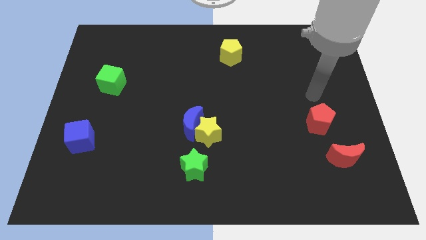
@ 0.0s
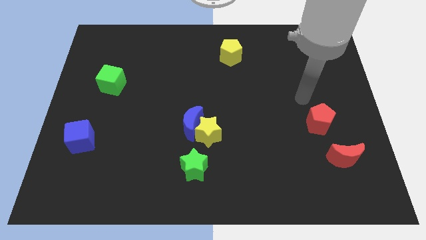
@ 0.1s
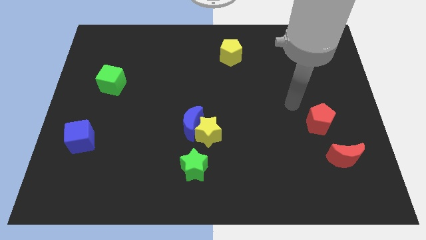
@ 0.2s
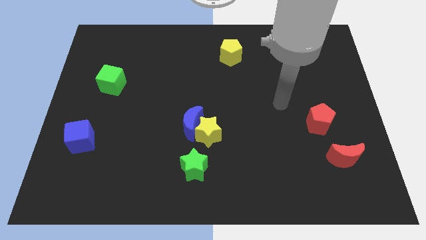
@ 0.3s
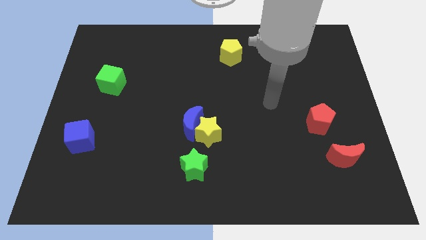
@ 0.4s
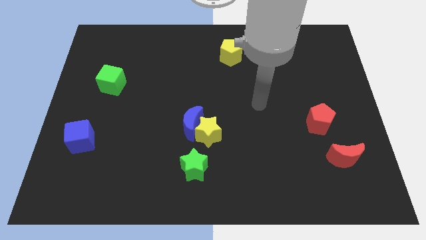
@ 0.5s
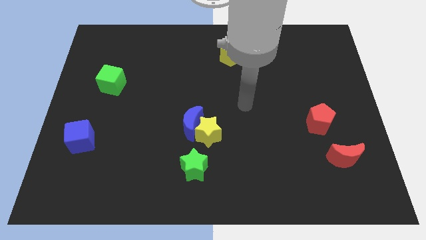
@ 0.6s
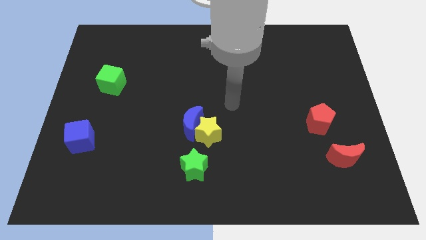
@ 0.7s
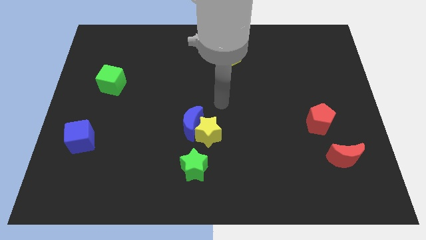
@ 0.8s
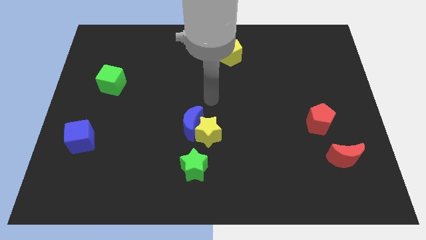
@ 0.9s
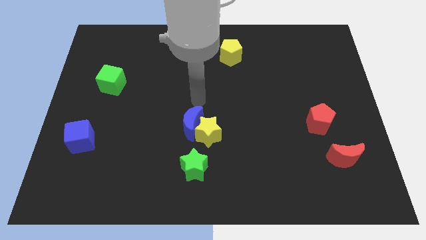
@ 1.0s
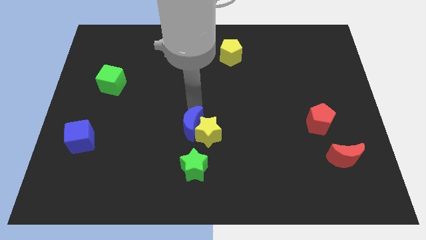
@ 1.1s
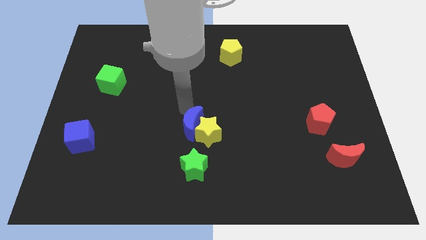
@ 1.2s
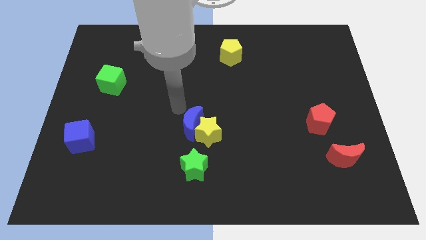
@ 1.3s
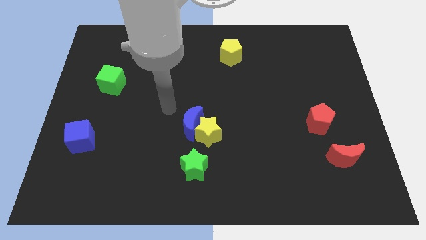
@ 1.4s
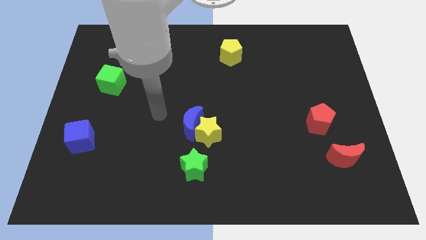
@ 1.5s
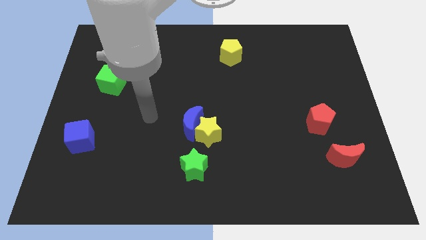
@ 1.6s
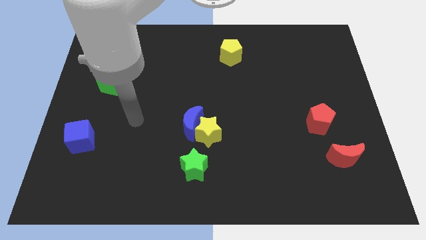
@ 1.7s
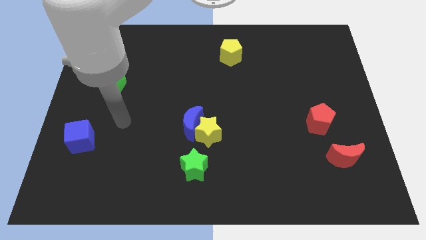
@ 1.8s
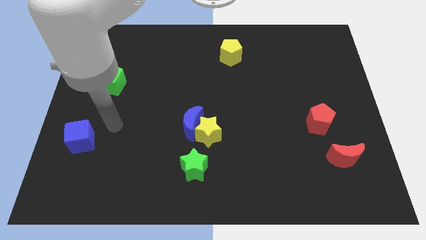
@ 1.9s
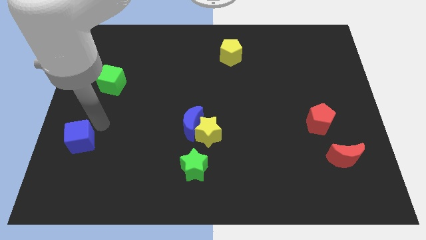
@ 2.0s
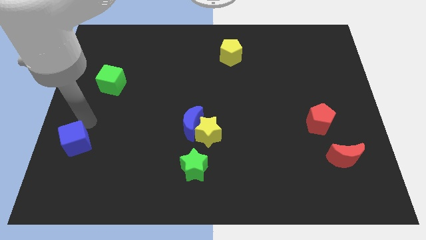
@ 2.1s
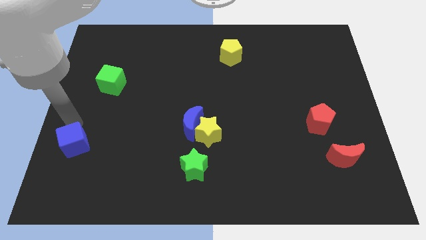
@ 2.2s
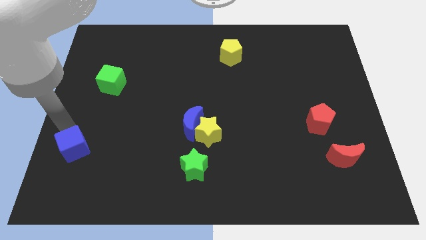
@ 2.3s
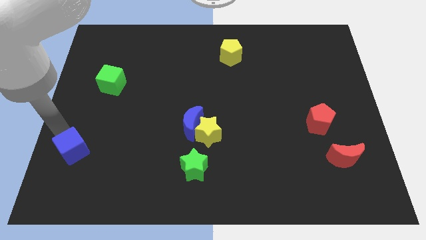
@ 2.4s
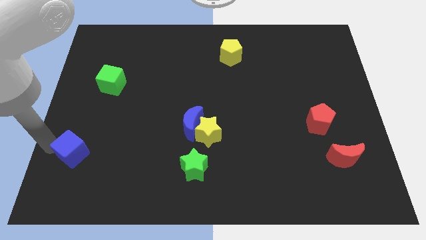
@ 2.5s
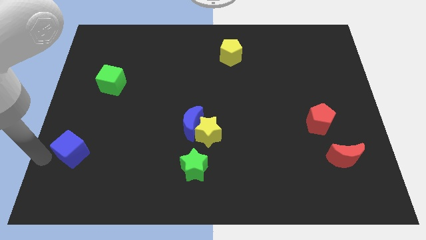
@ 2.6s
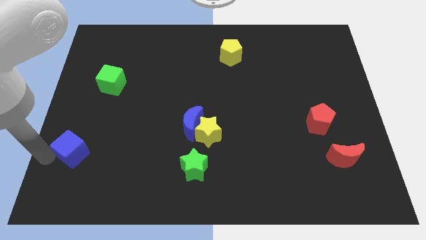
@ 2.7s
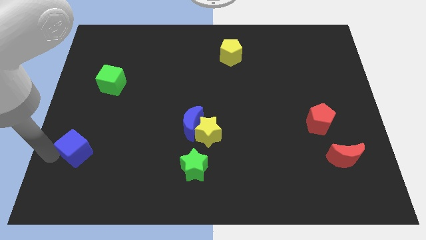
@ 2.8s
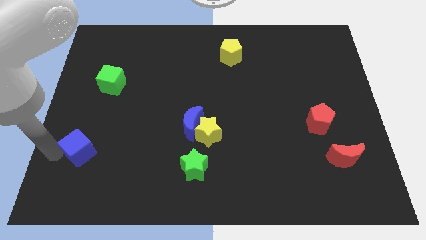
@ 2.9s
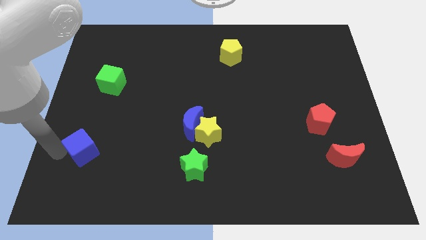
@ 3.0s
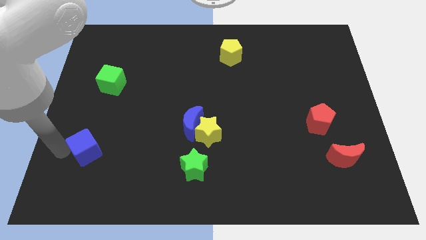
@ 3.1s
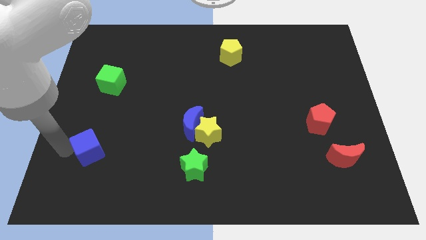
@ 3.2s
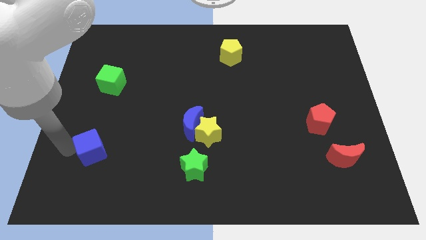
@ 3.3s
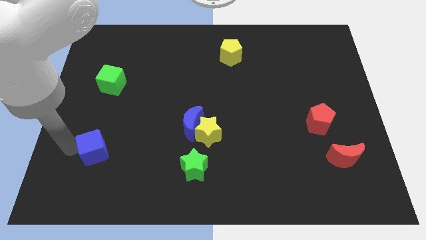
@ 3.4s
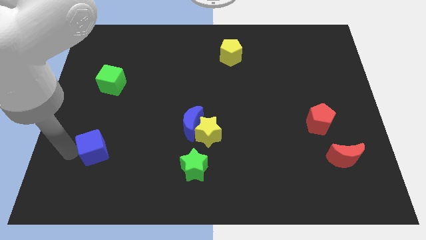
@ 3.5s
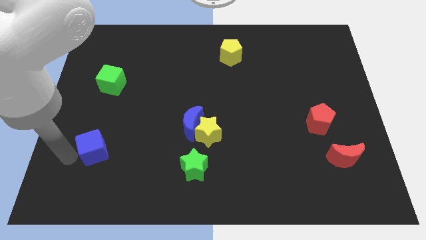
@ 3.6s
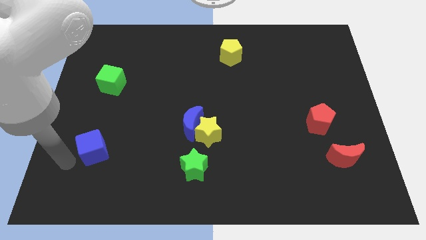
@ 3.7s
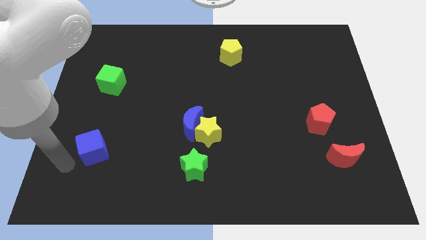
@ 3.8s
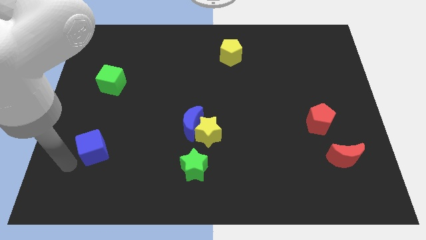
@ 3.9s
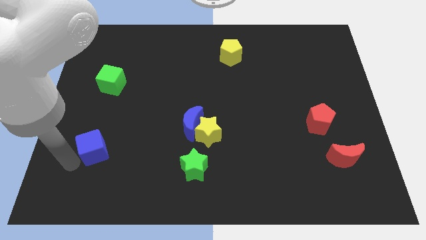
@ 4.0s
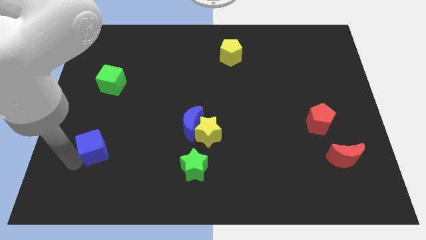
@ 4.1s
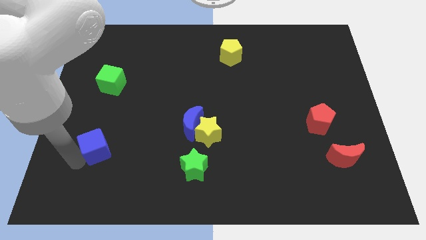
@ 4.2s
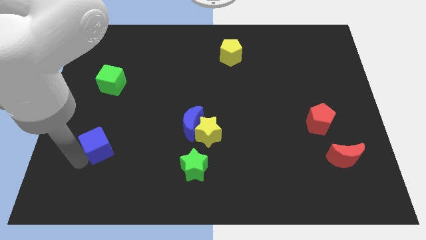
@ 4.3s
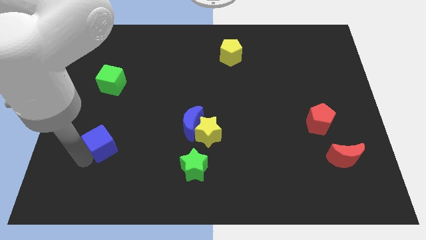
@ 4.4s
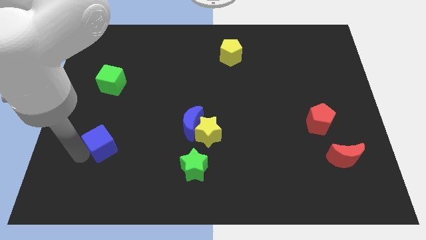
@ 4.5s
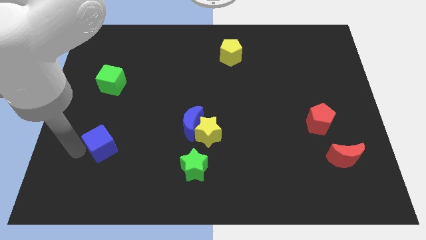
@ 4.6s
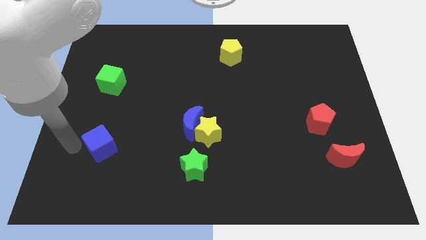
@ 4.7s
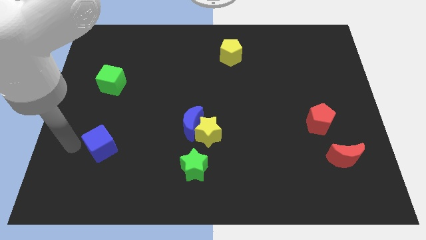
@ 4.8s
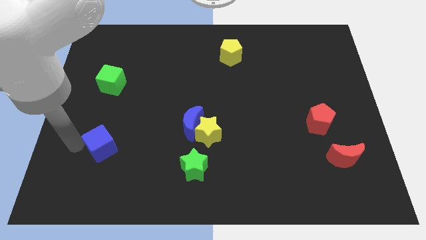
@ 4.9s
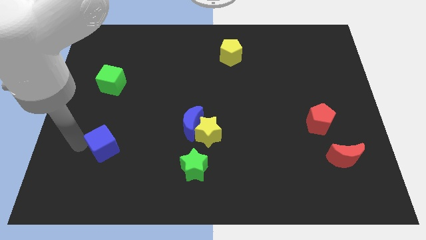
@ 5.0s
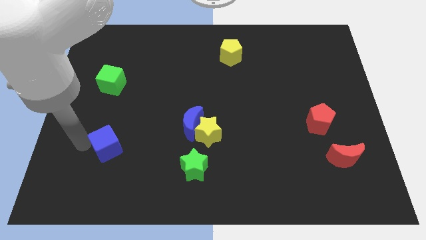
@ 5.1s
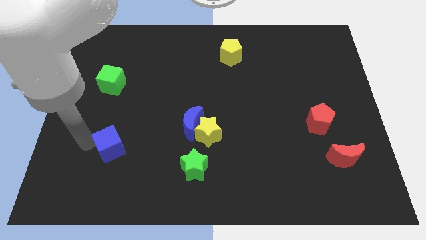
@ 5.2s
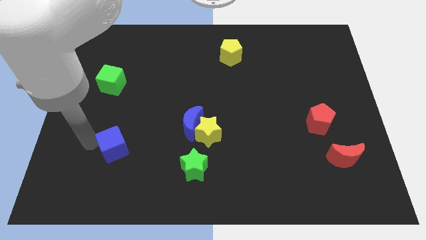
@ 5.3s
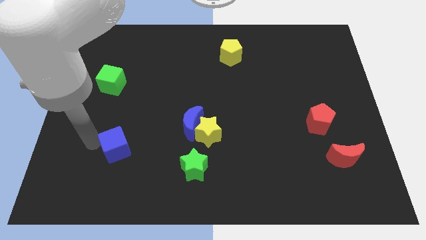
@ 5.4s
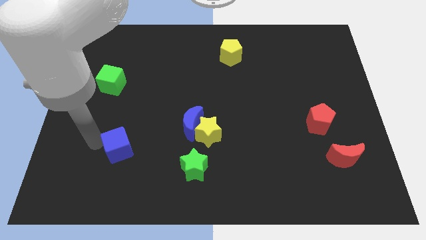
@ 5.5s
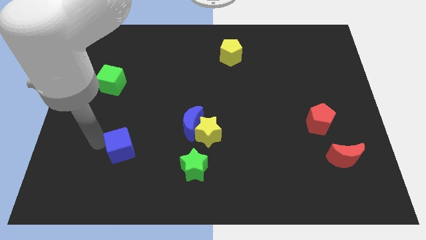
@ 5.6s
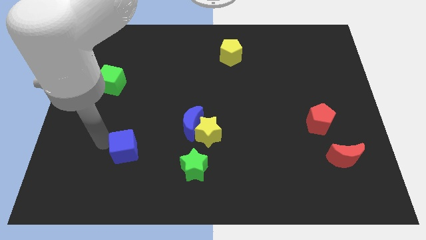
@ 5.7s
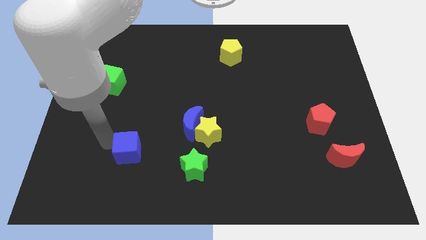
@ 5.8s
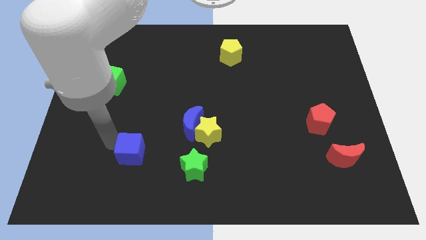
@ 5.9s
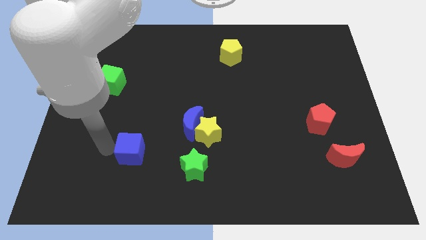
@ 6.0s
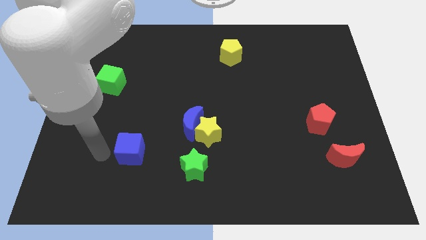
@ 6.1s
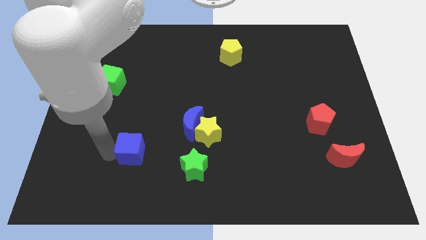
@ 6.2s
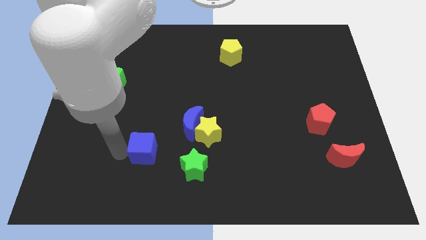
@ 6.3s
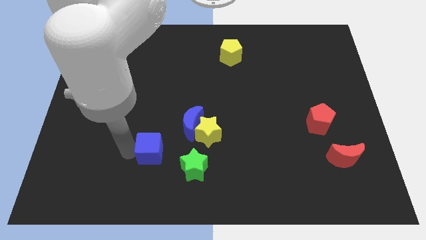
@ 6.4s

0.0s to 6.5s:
slide the blue cube diagonally up and to the left of the green star
